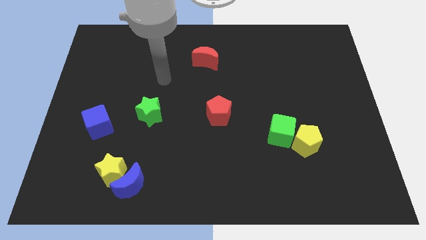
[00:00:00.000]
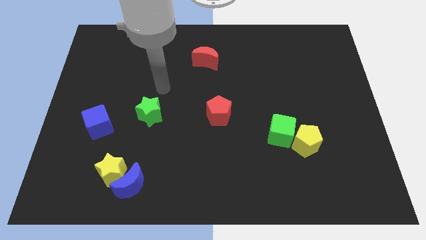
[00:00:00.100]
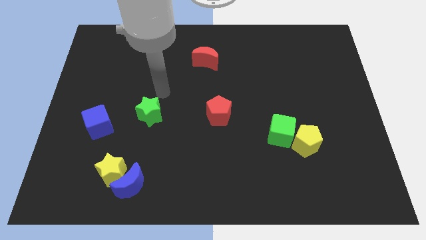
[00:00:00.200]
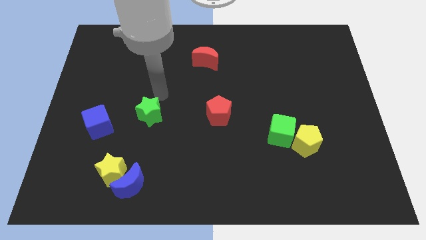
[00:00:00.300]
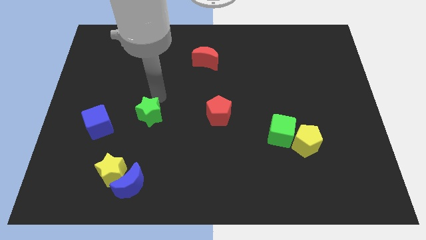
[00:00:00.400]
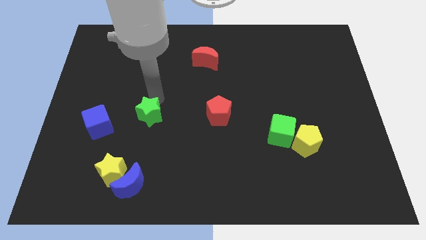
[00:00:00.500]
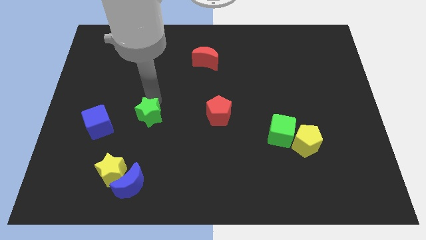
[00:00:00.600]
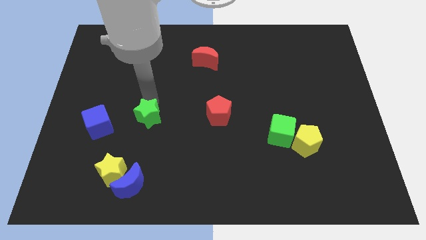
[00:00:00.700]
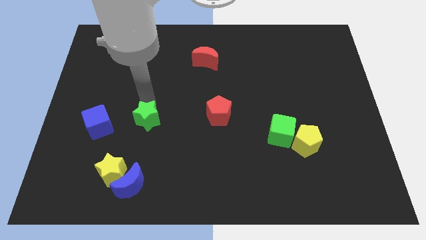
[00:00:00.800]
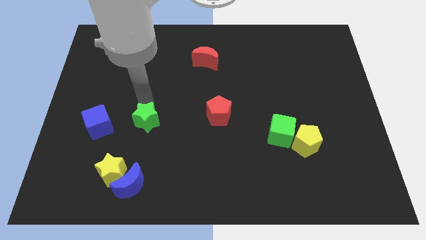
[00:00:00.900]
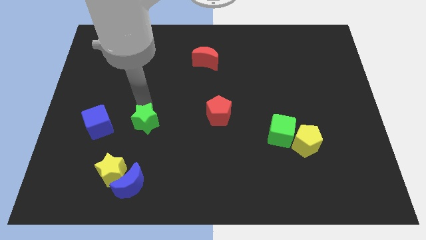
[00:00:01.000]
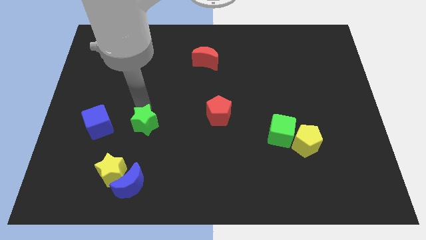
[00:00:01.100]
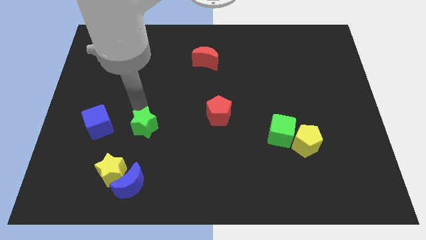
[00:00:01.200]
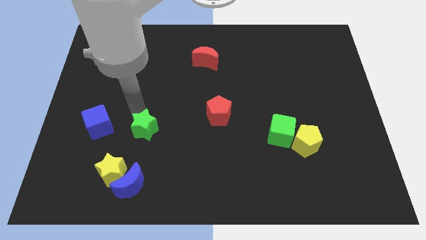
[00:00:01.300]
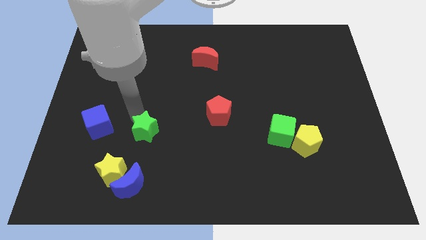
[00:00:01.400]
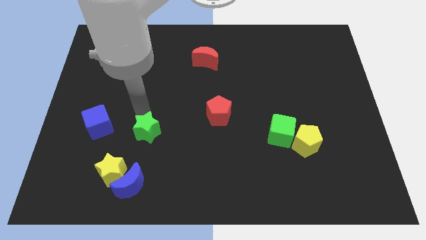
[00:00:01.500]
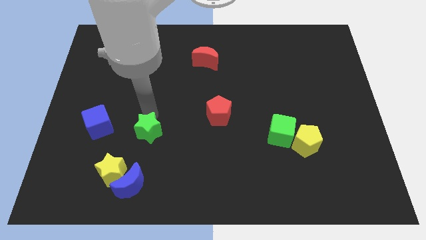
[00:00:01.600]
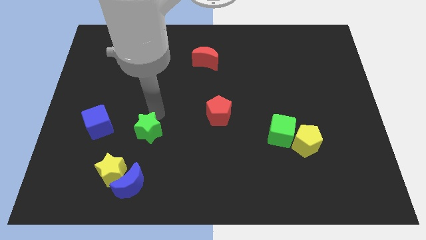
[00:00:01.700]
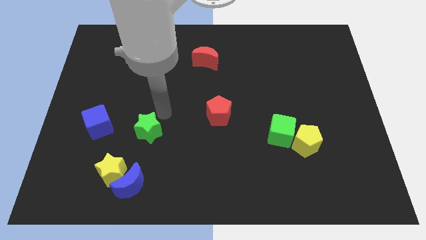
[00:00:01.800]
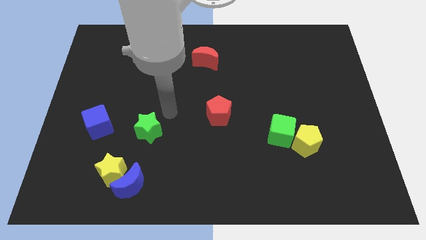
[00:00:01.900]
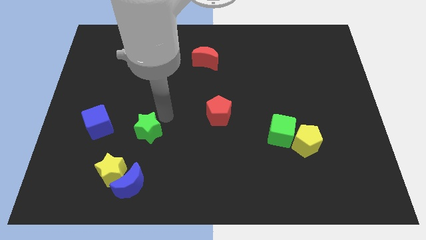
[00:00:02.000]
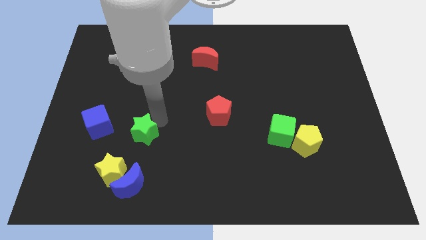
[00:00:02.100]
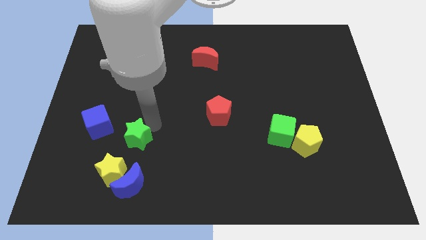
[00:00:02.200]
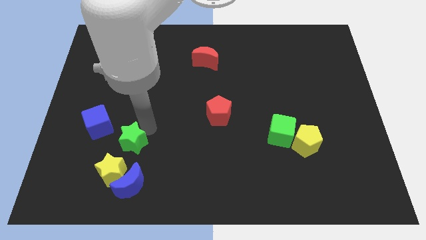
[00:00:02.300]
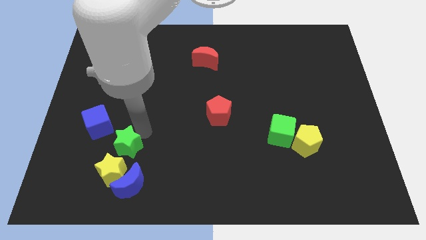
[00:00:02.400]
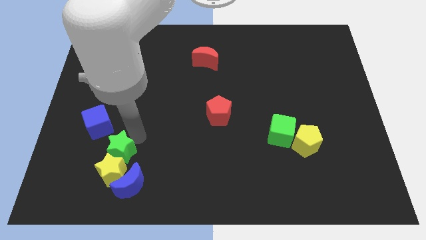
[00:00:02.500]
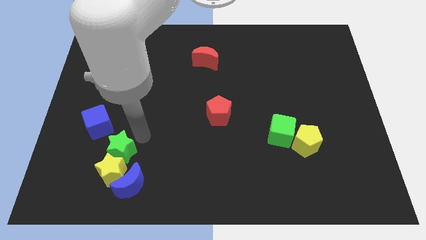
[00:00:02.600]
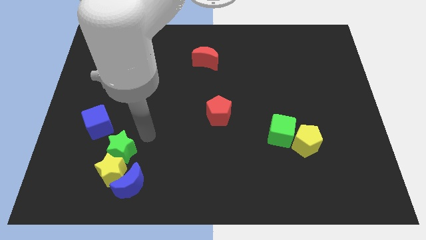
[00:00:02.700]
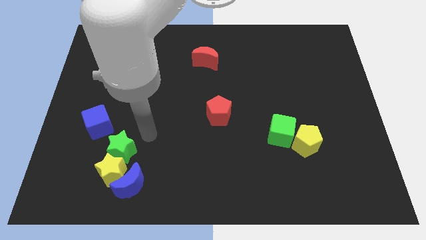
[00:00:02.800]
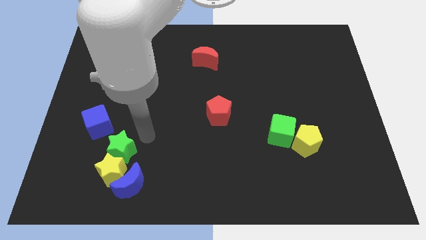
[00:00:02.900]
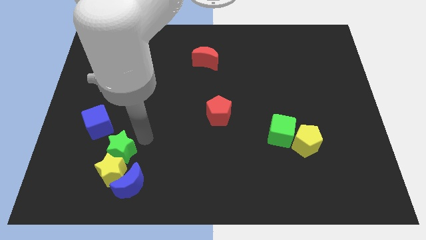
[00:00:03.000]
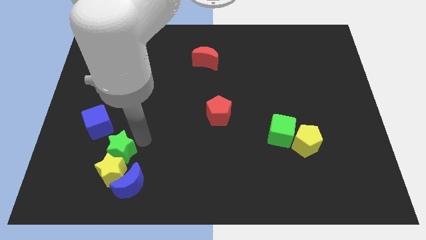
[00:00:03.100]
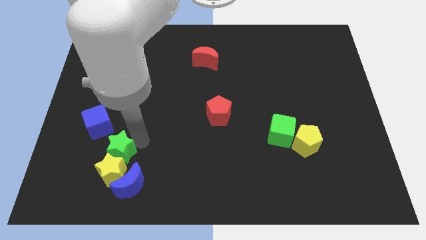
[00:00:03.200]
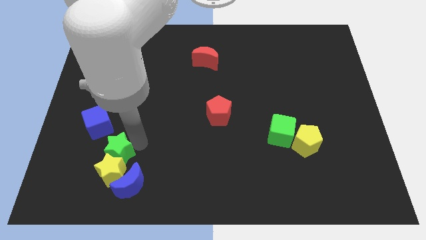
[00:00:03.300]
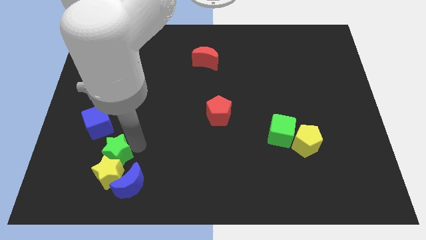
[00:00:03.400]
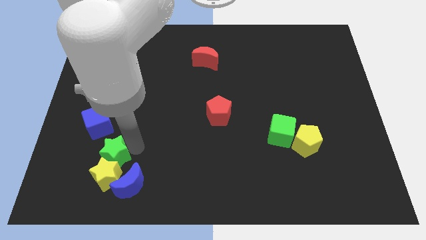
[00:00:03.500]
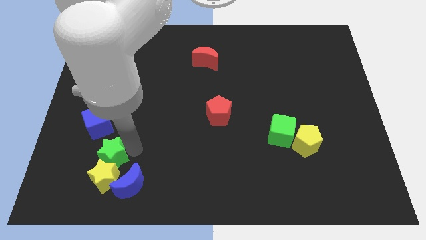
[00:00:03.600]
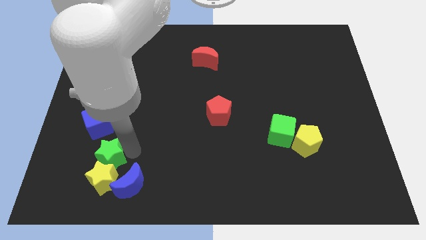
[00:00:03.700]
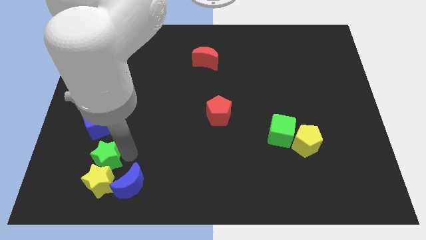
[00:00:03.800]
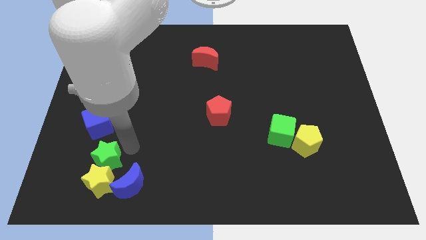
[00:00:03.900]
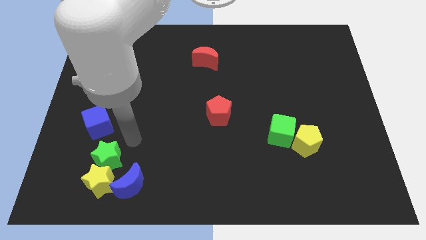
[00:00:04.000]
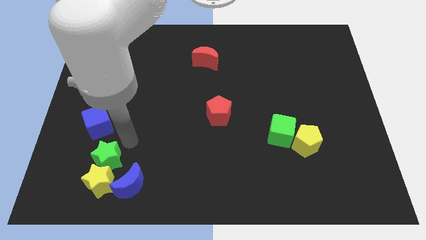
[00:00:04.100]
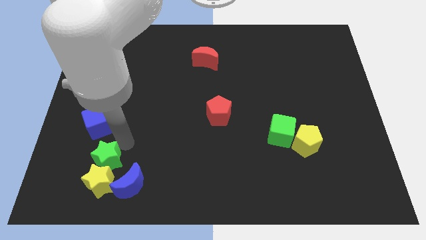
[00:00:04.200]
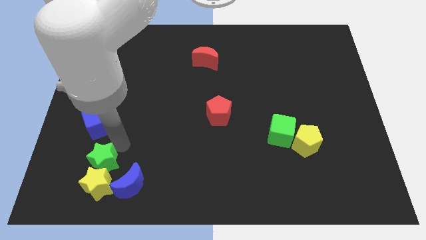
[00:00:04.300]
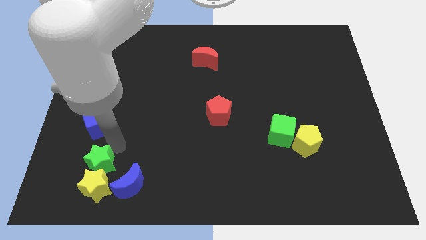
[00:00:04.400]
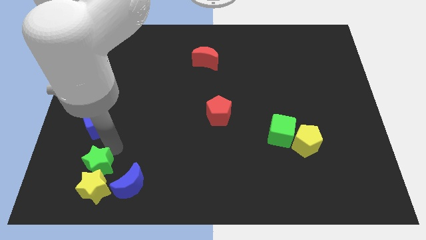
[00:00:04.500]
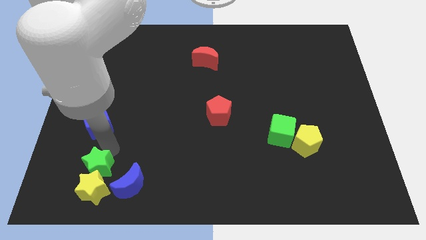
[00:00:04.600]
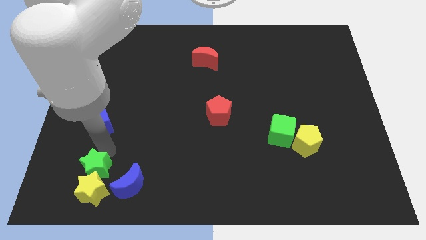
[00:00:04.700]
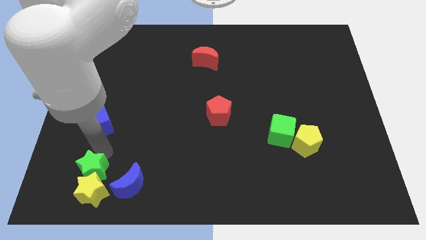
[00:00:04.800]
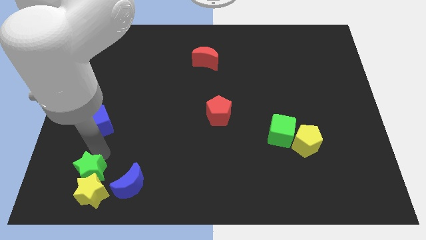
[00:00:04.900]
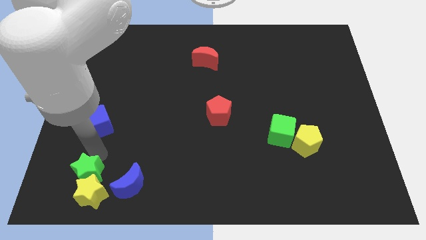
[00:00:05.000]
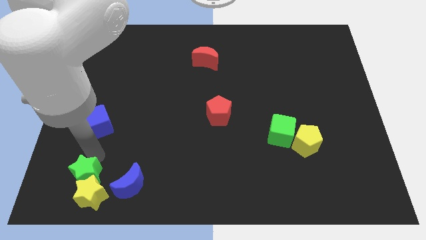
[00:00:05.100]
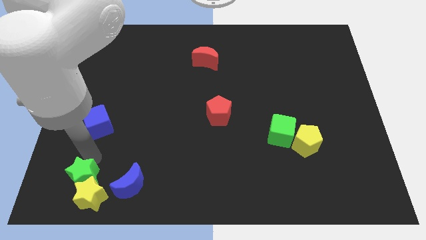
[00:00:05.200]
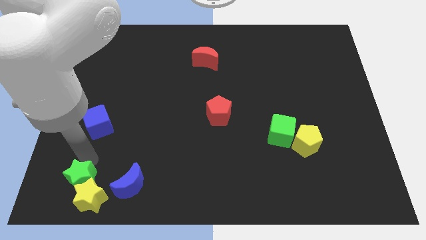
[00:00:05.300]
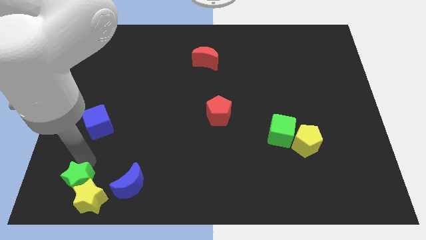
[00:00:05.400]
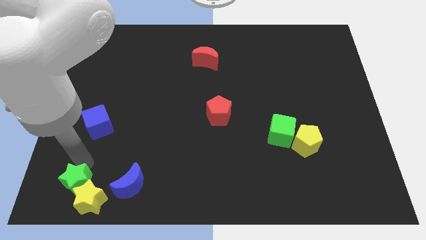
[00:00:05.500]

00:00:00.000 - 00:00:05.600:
push the green star to the bottom left of the board
